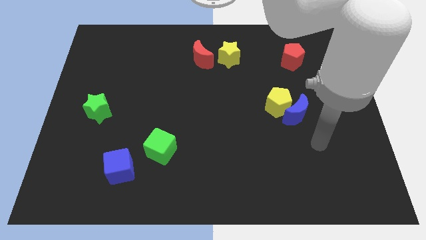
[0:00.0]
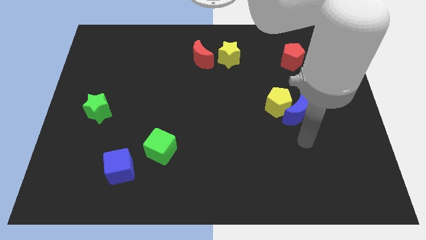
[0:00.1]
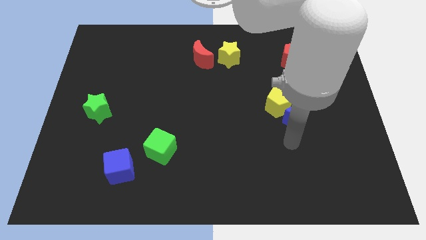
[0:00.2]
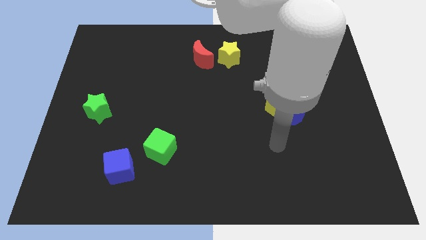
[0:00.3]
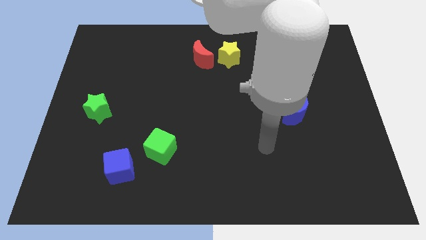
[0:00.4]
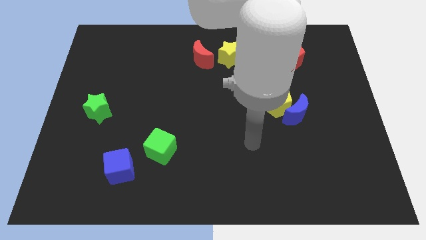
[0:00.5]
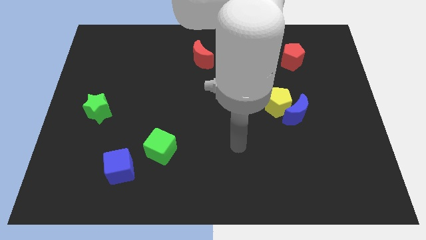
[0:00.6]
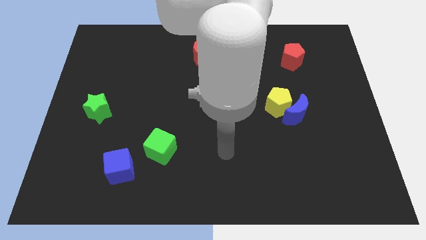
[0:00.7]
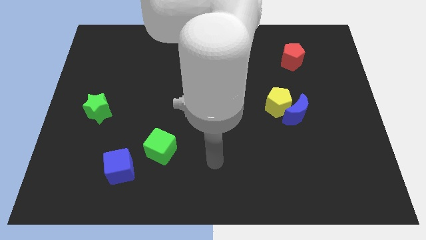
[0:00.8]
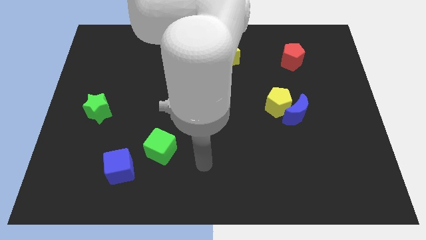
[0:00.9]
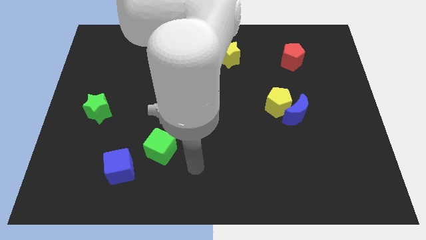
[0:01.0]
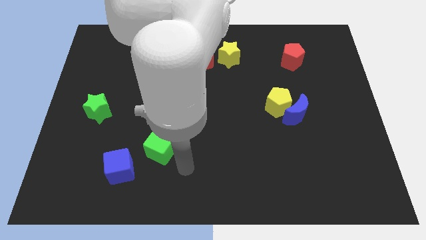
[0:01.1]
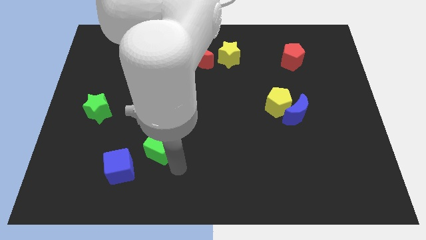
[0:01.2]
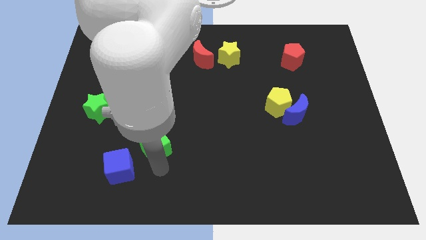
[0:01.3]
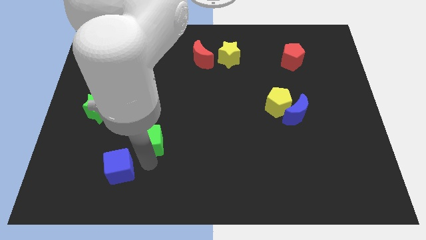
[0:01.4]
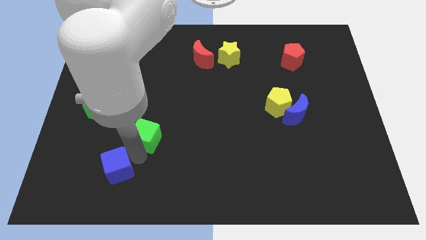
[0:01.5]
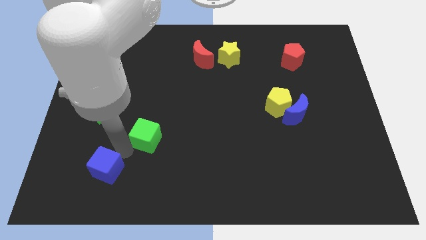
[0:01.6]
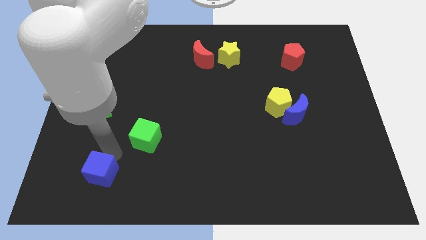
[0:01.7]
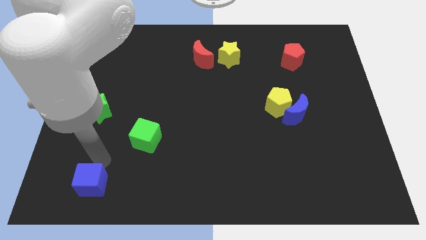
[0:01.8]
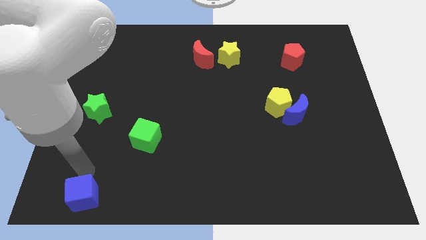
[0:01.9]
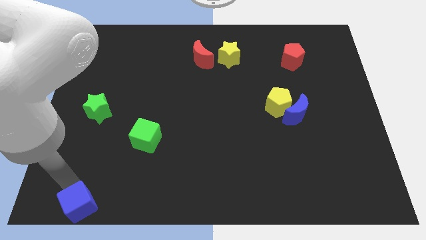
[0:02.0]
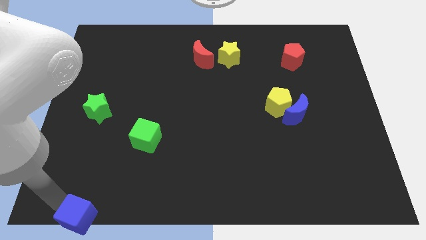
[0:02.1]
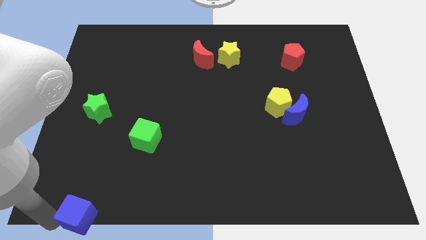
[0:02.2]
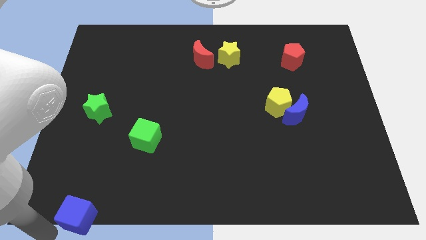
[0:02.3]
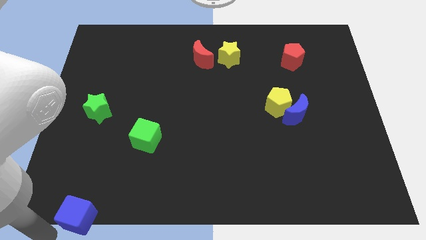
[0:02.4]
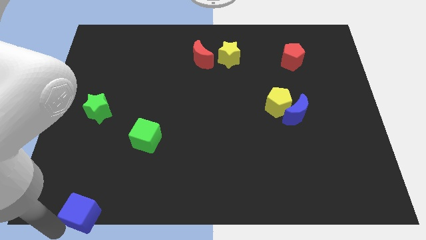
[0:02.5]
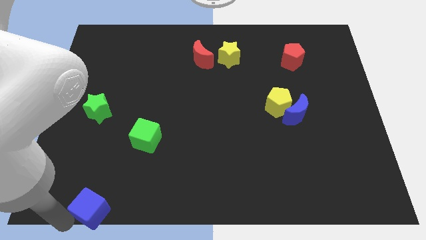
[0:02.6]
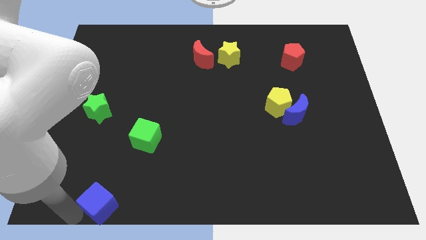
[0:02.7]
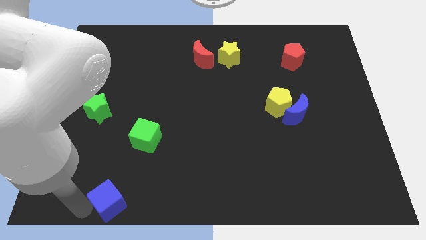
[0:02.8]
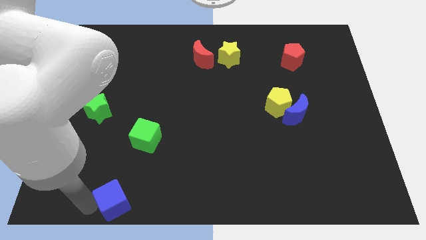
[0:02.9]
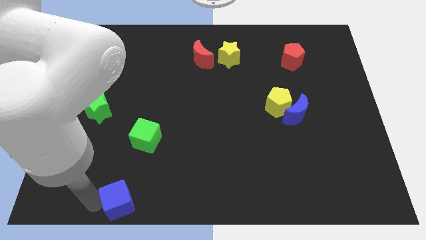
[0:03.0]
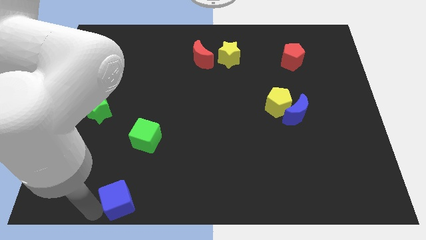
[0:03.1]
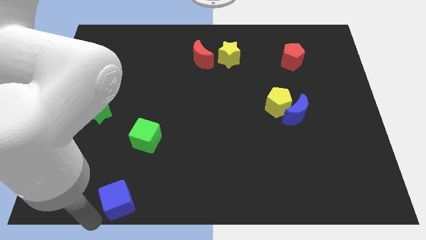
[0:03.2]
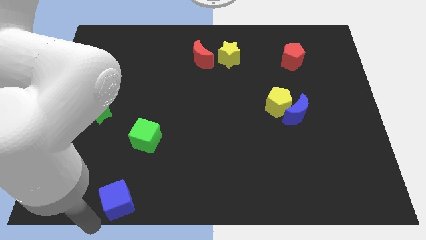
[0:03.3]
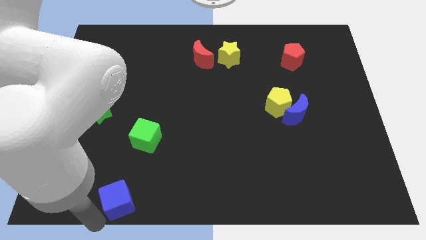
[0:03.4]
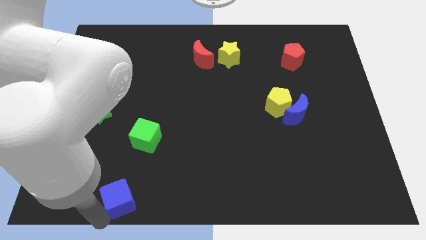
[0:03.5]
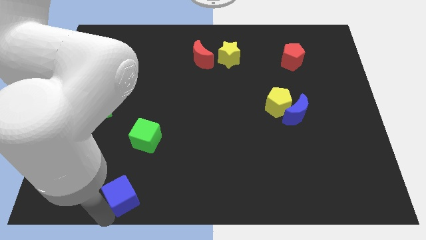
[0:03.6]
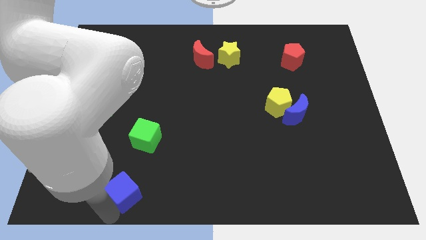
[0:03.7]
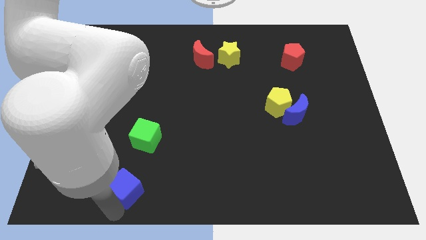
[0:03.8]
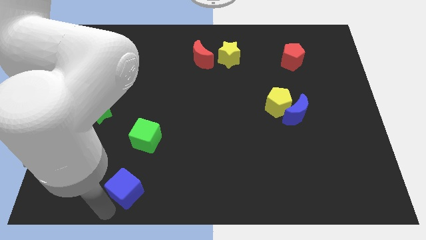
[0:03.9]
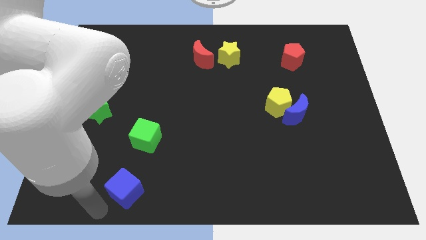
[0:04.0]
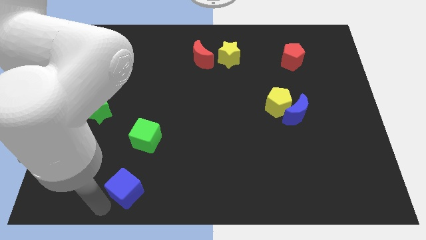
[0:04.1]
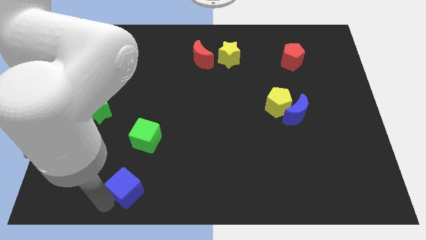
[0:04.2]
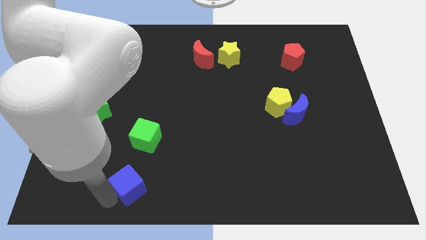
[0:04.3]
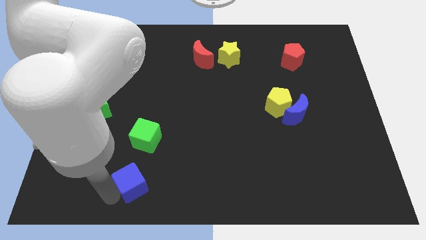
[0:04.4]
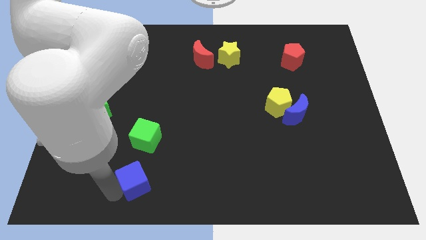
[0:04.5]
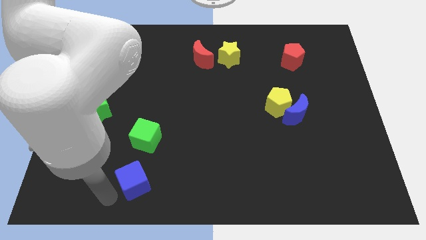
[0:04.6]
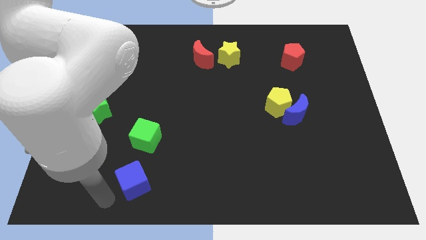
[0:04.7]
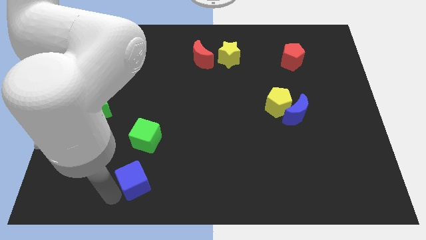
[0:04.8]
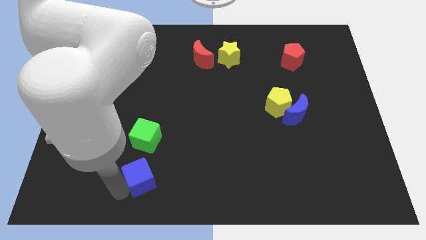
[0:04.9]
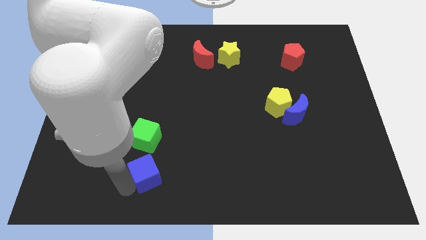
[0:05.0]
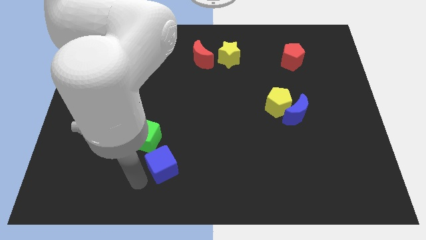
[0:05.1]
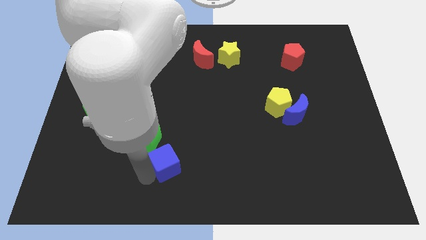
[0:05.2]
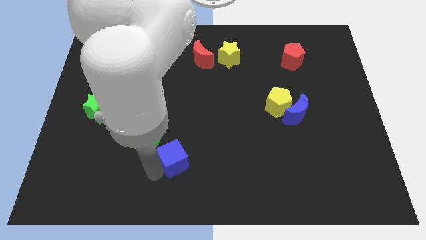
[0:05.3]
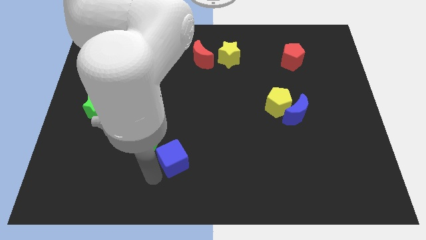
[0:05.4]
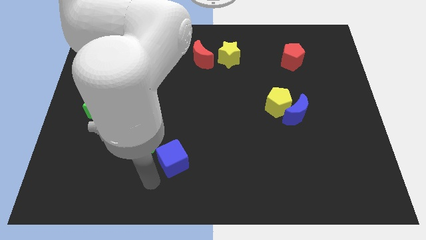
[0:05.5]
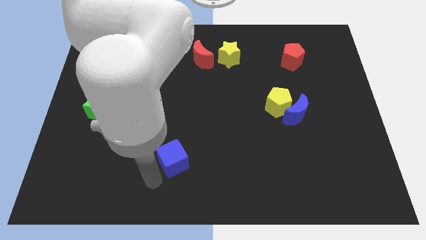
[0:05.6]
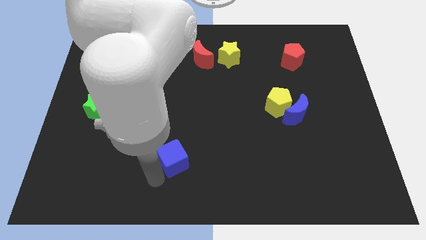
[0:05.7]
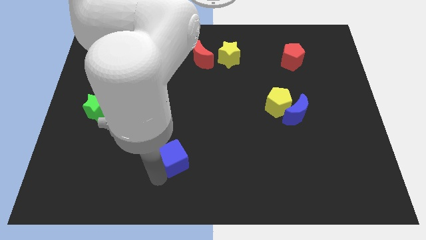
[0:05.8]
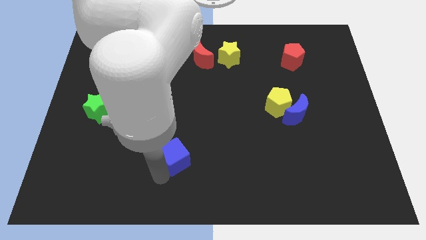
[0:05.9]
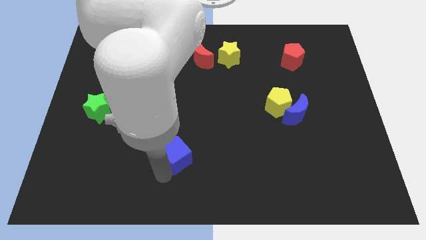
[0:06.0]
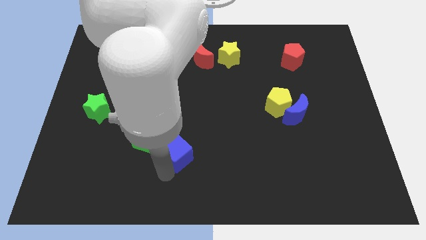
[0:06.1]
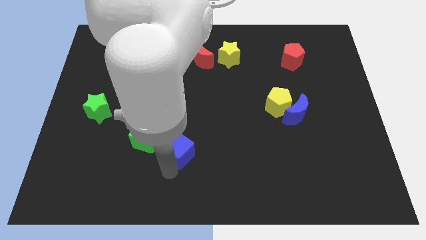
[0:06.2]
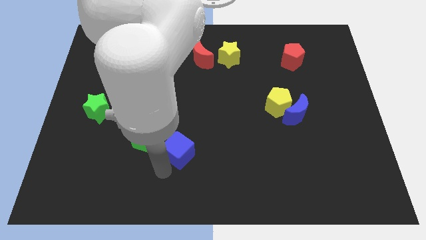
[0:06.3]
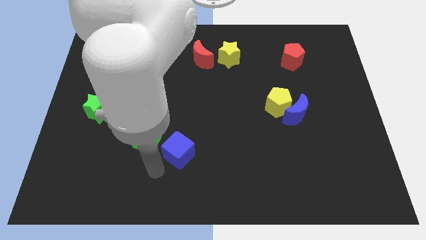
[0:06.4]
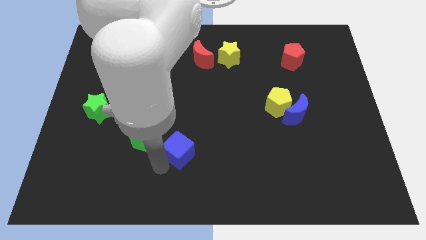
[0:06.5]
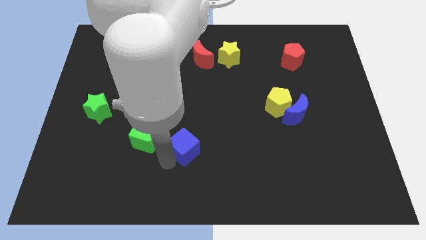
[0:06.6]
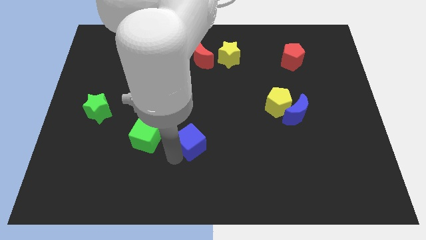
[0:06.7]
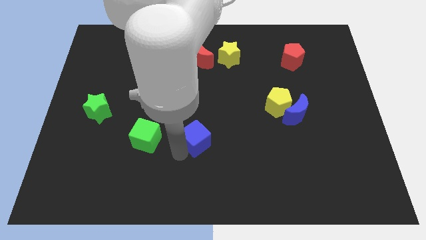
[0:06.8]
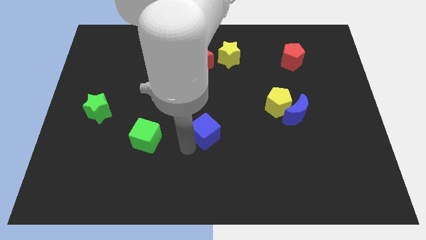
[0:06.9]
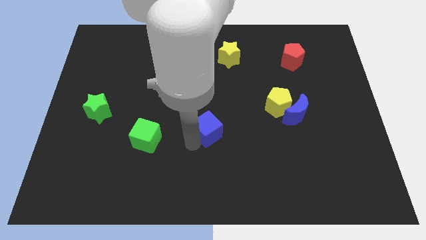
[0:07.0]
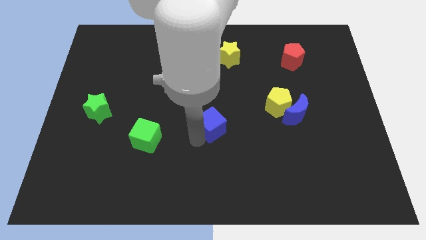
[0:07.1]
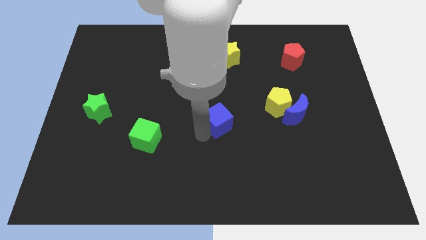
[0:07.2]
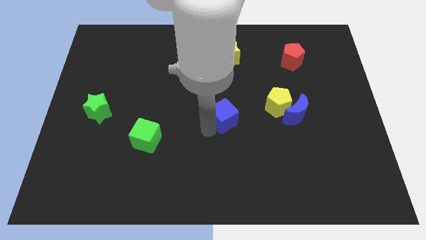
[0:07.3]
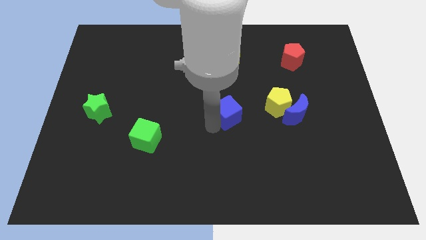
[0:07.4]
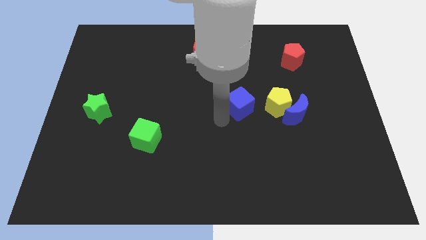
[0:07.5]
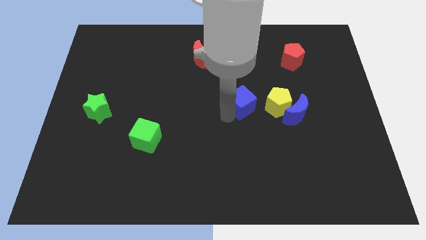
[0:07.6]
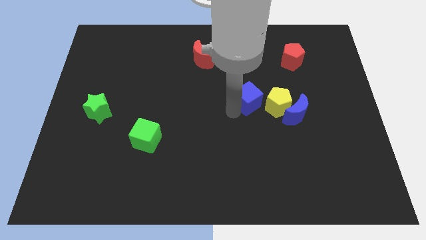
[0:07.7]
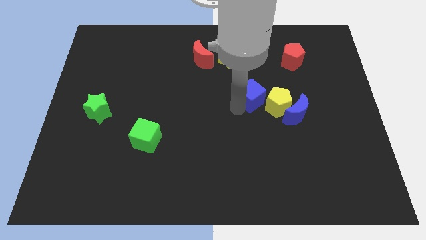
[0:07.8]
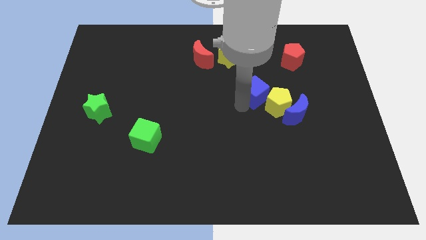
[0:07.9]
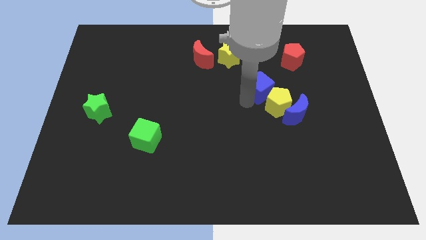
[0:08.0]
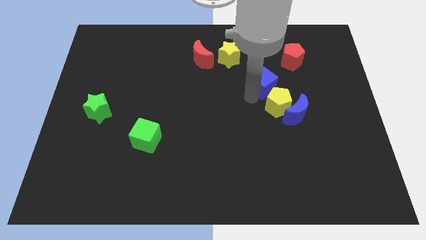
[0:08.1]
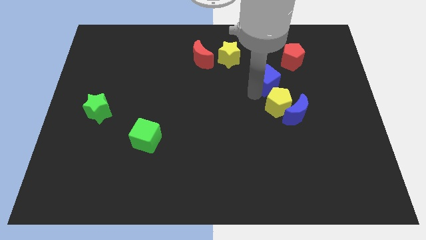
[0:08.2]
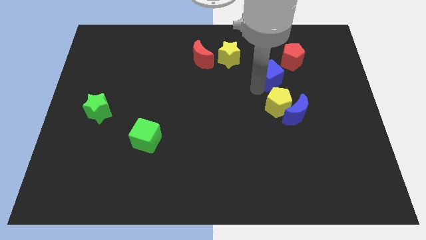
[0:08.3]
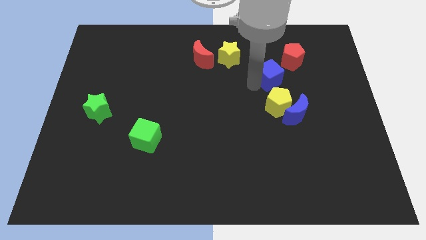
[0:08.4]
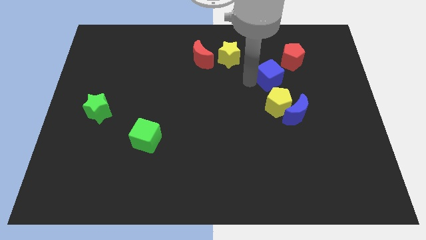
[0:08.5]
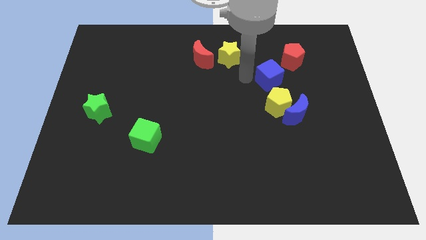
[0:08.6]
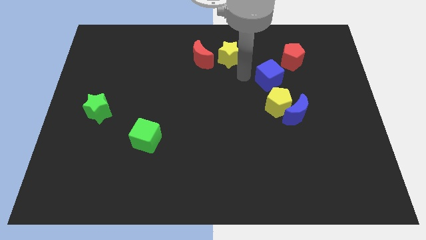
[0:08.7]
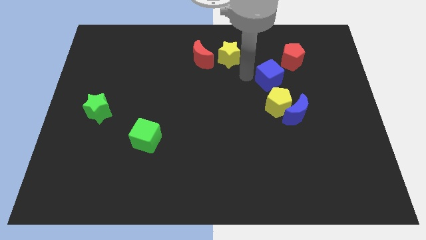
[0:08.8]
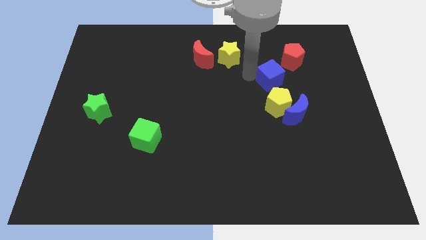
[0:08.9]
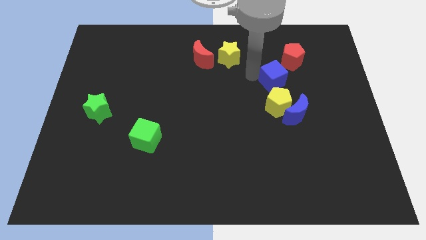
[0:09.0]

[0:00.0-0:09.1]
slide the blue cube to the top side of the blue moon
